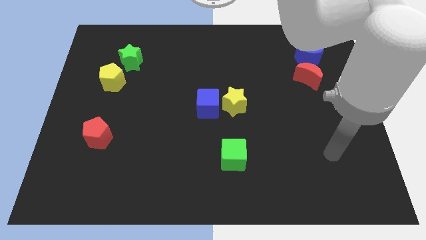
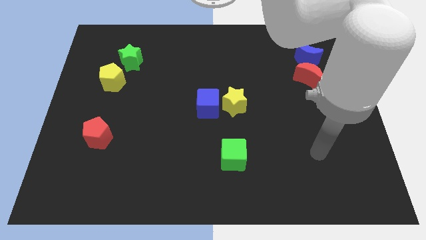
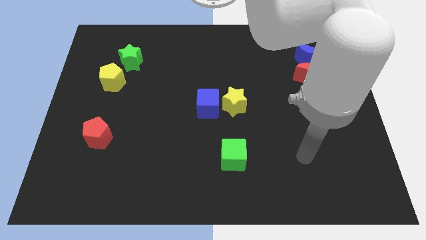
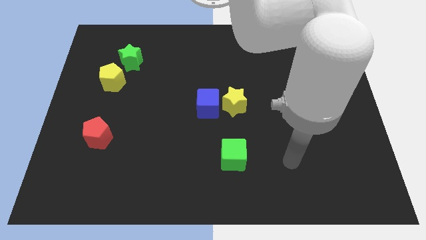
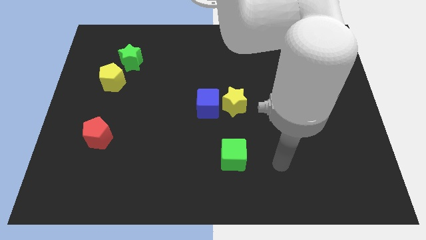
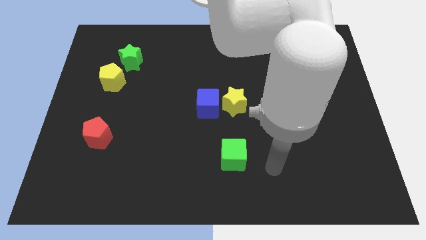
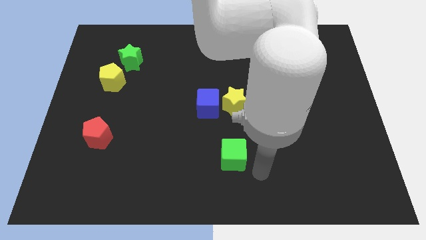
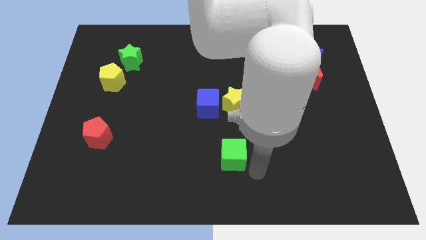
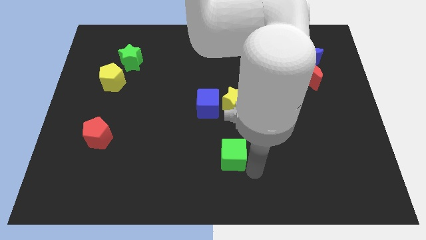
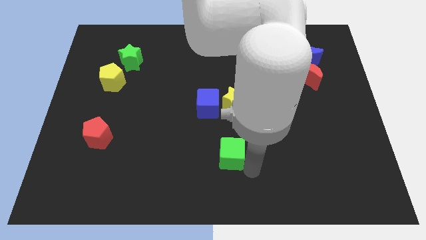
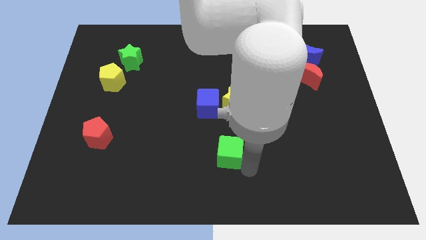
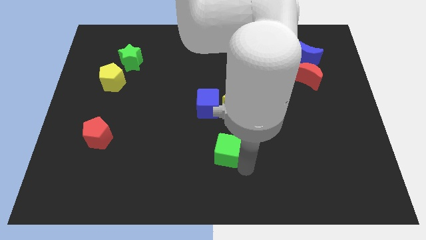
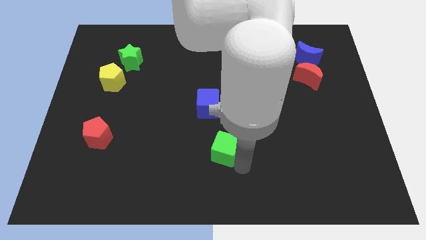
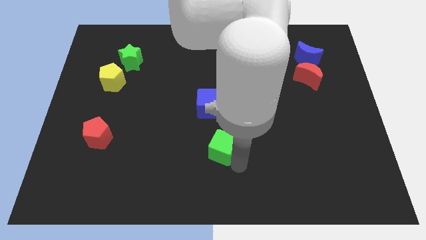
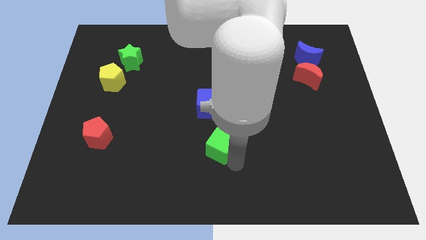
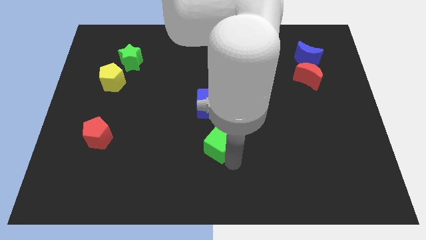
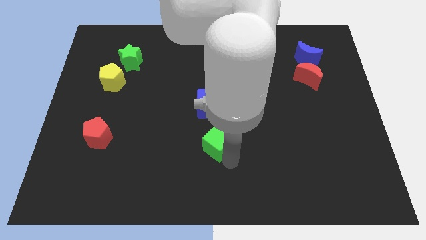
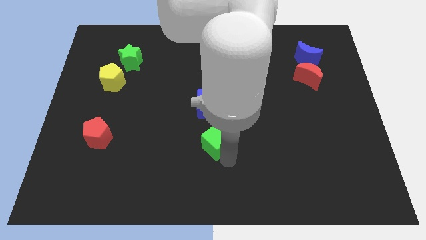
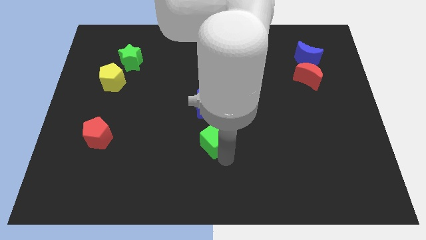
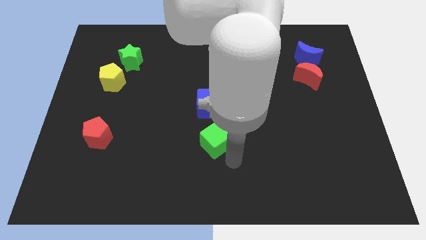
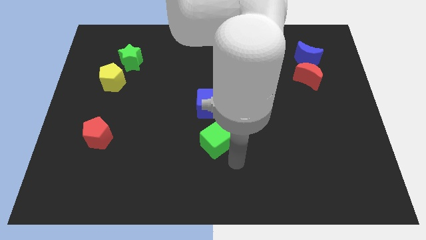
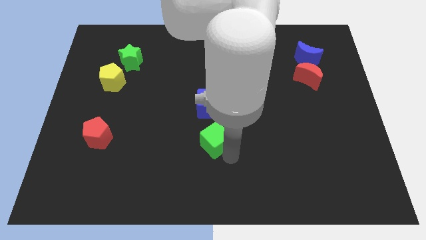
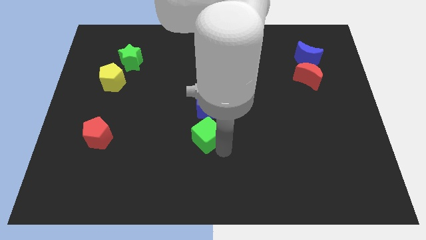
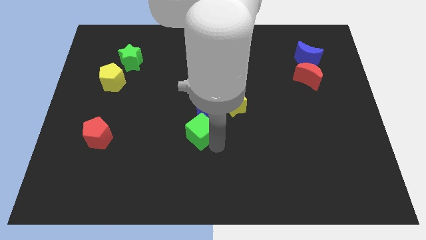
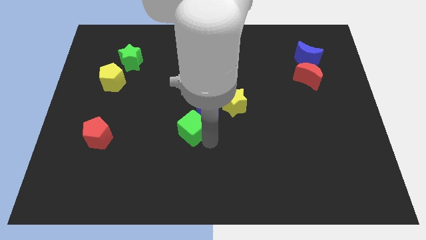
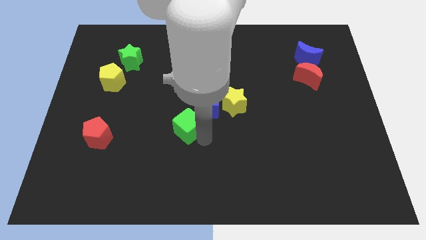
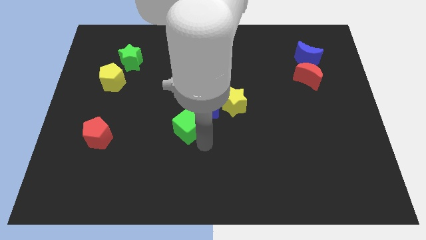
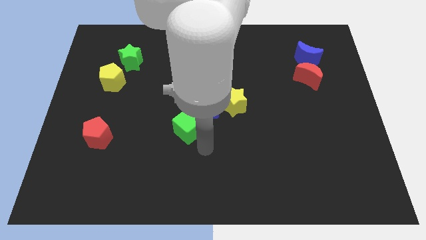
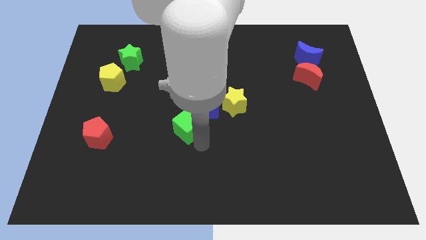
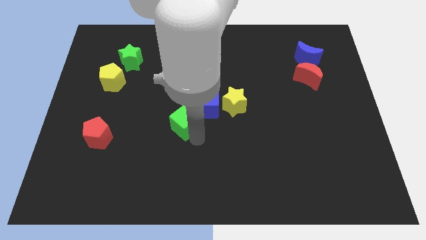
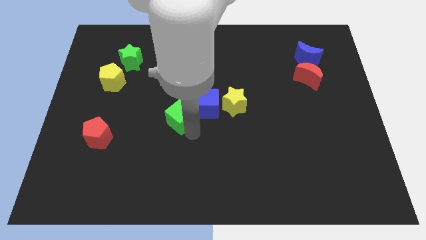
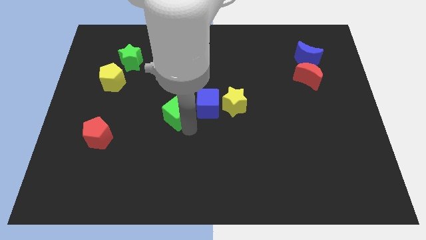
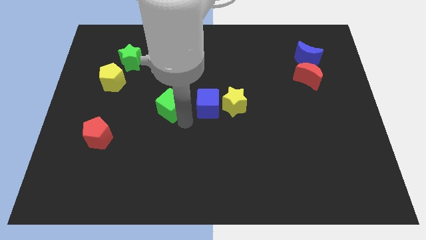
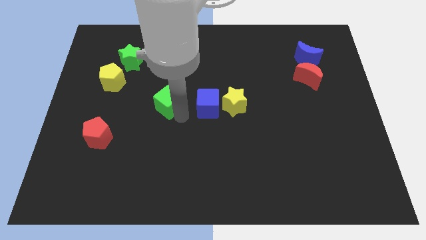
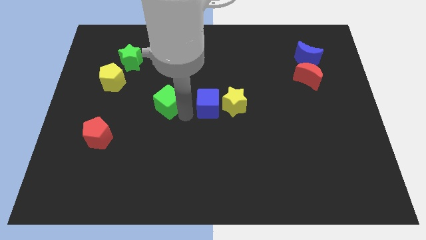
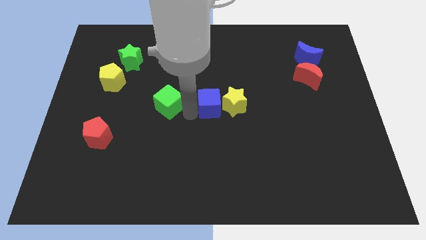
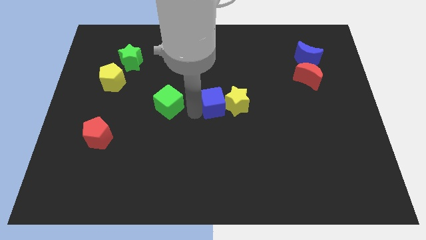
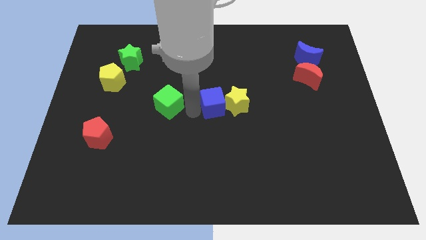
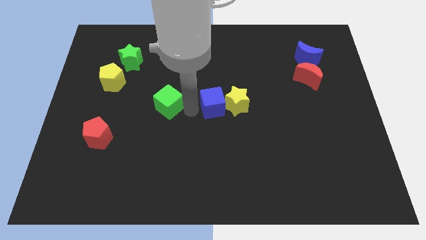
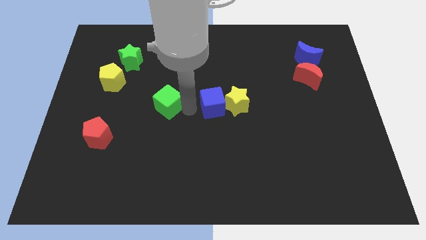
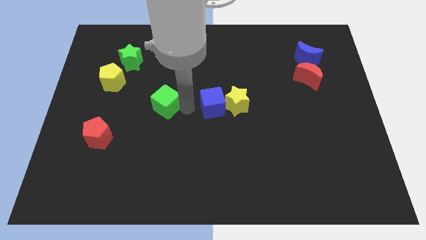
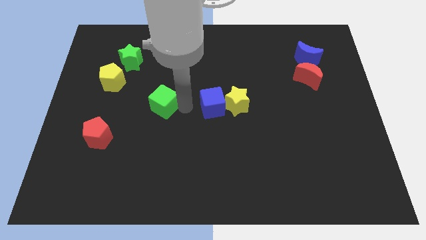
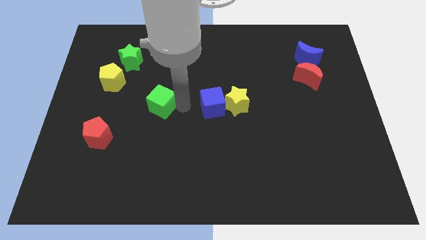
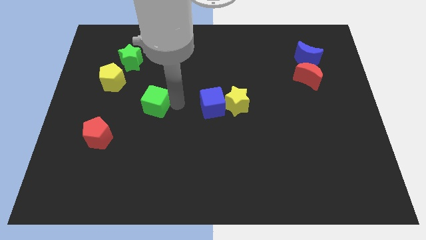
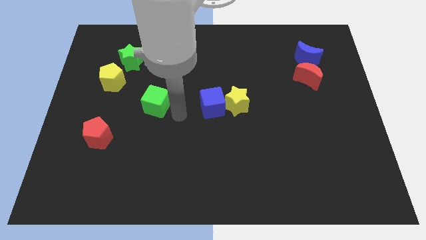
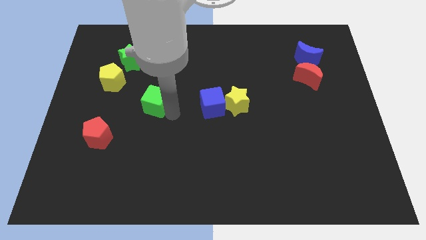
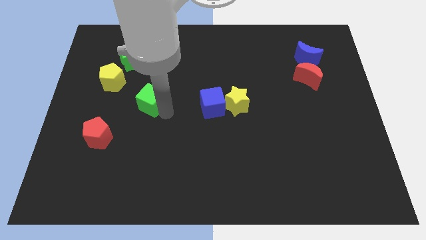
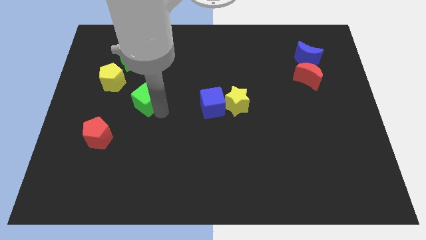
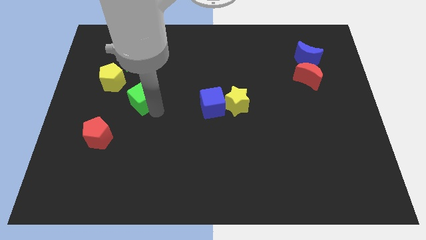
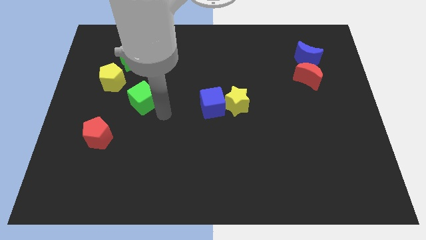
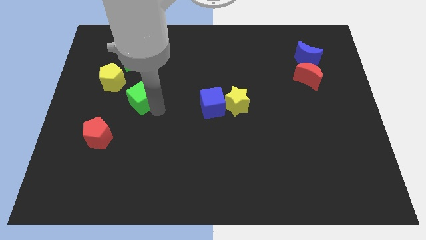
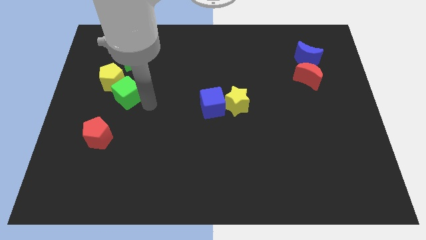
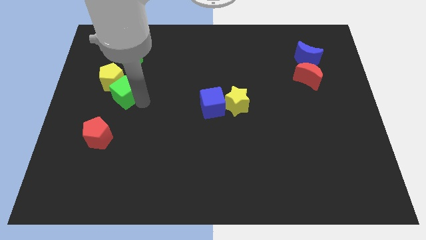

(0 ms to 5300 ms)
put the green cube close to the yellow pentagon

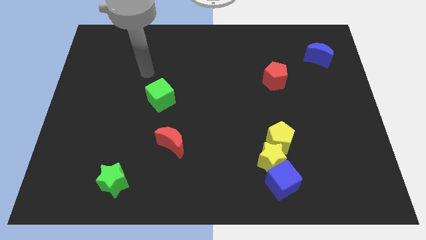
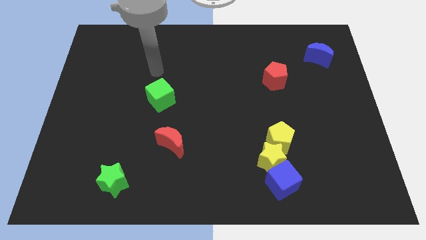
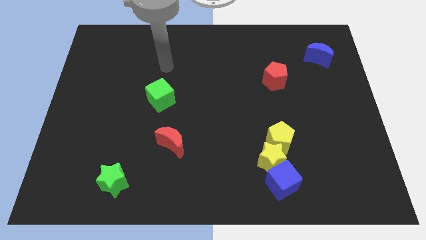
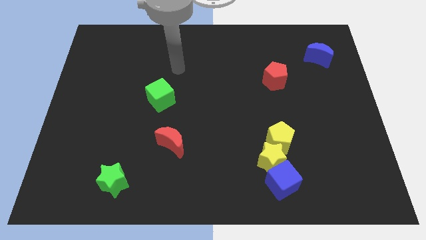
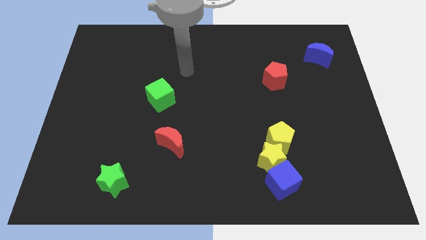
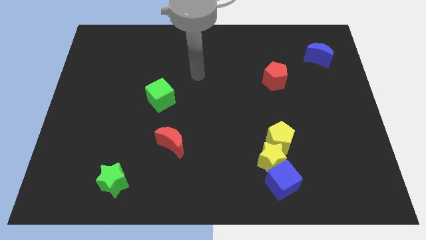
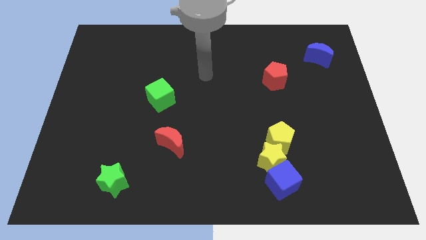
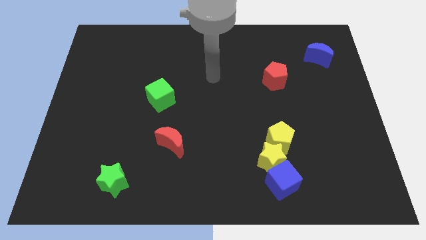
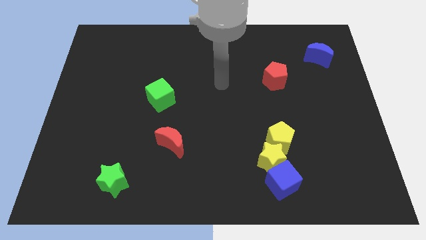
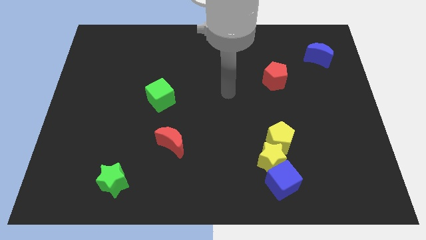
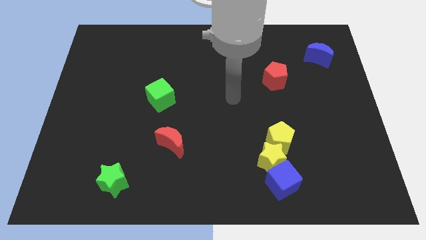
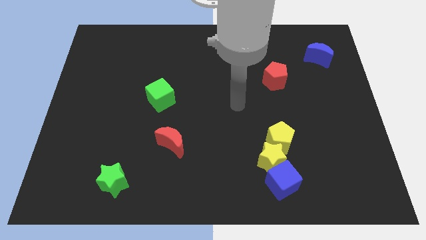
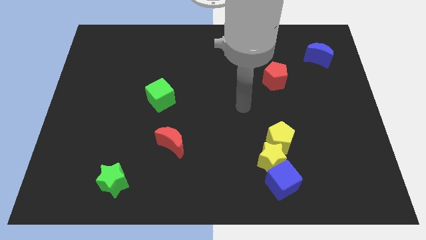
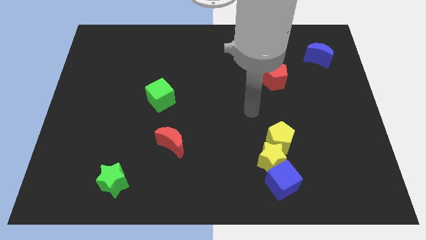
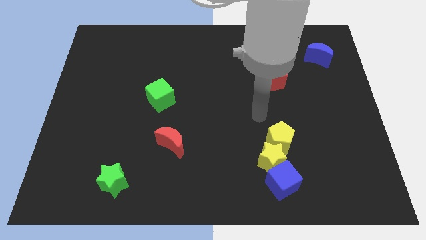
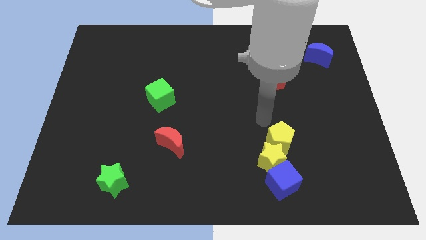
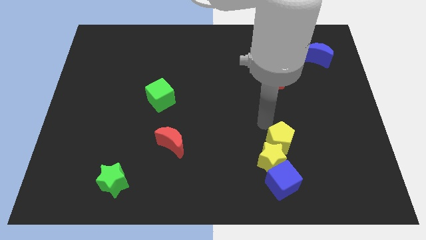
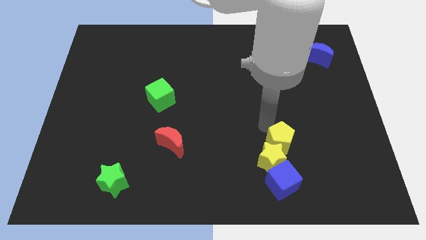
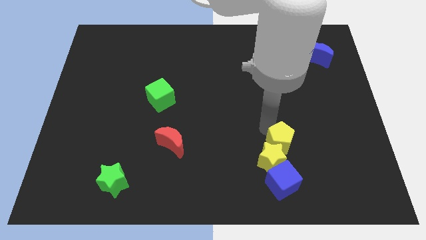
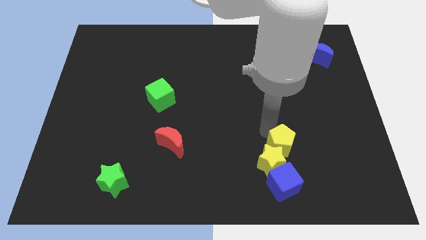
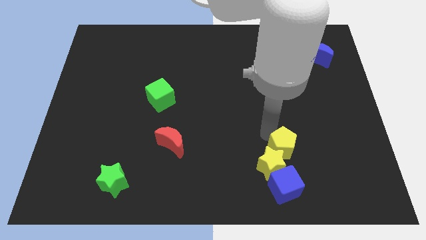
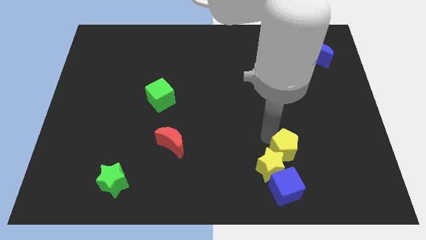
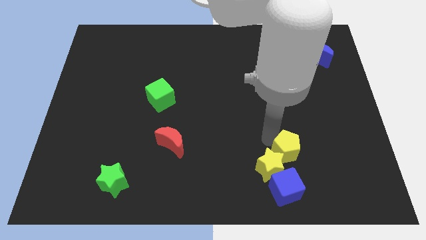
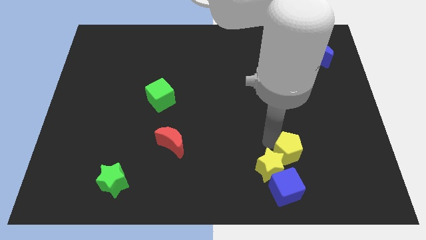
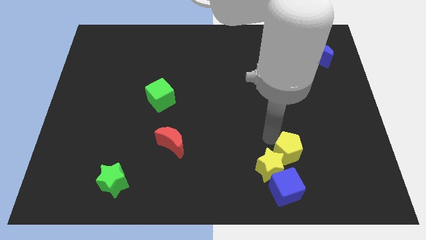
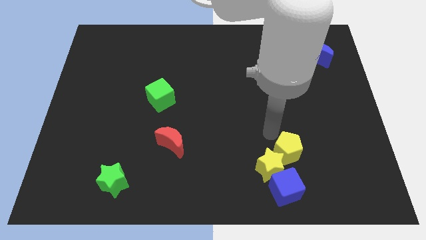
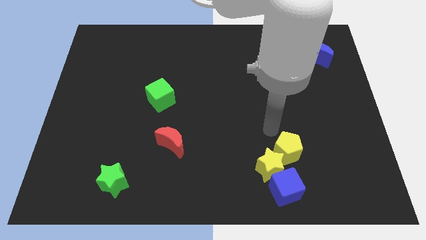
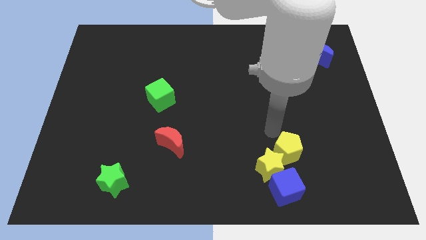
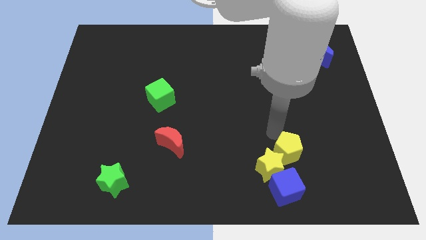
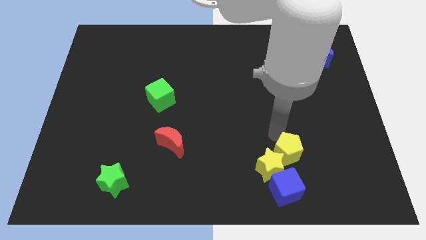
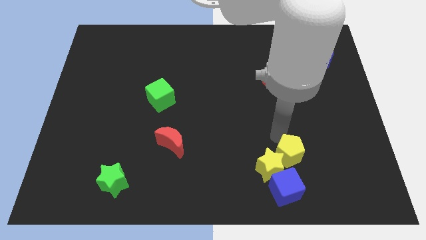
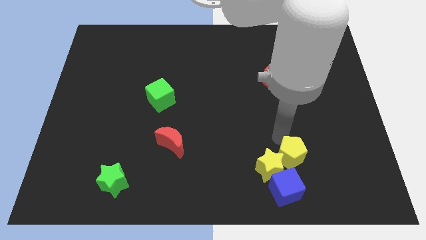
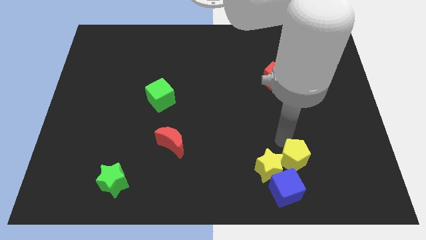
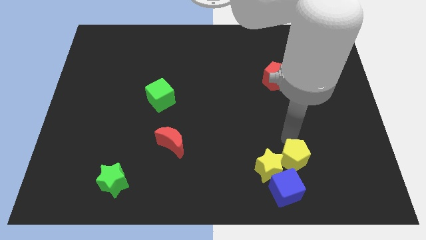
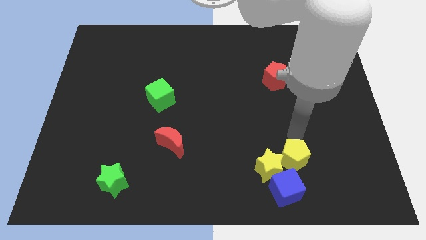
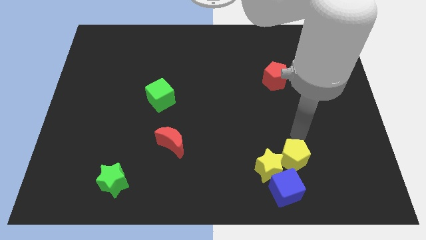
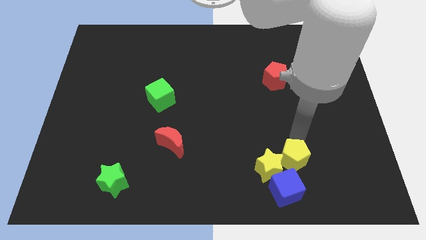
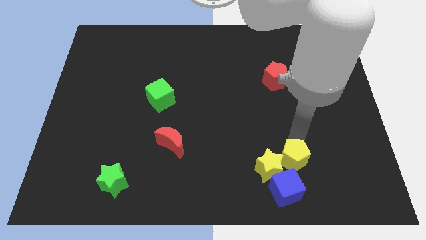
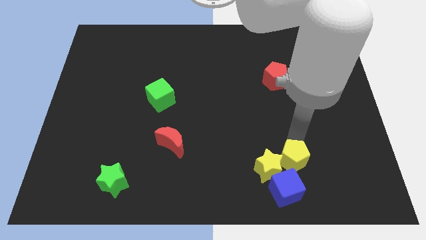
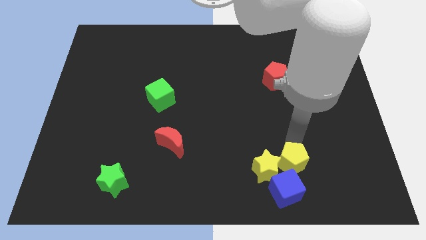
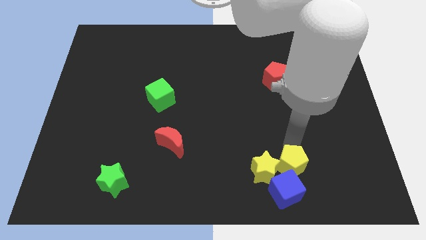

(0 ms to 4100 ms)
slide the yellow pentagon to the blue cube
